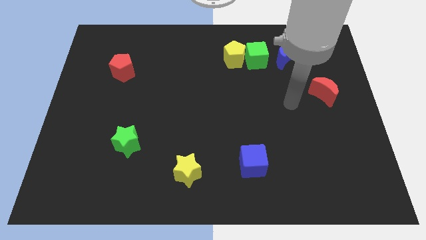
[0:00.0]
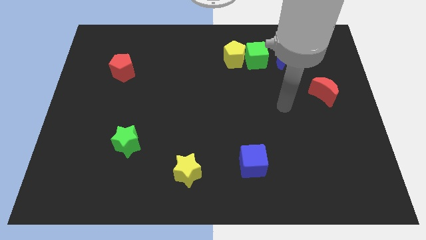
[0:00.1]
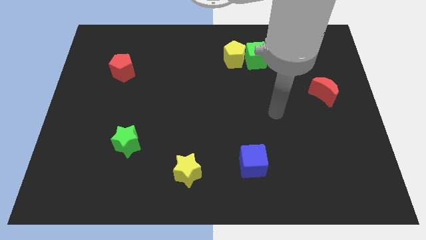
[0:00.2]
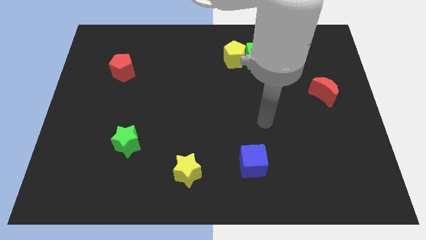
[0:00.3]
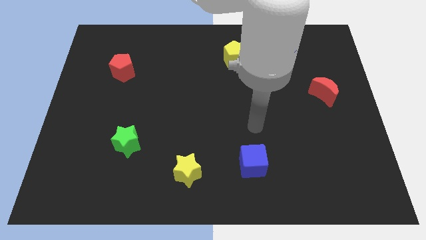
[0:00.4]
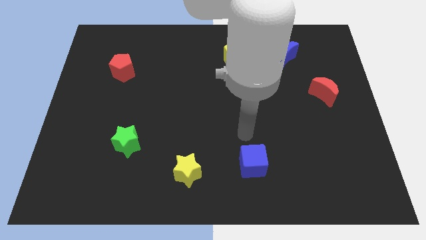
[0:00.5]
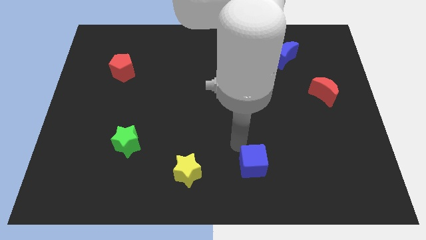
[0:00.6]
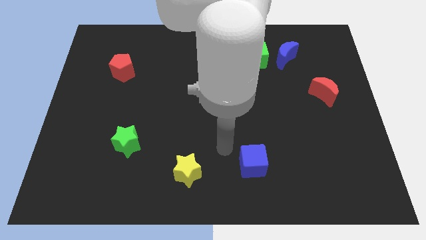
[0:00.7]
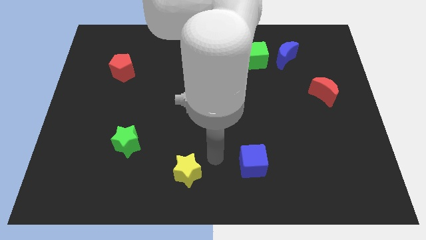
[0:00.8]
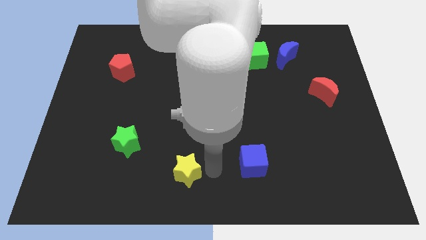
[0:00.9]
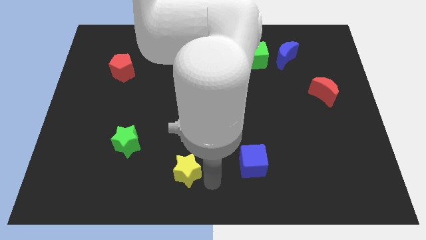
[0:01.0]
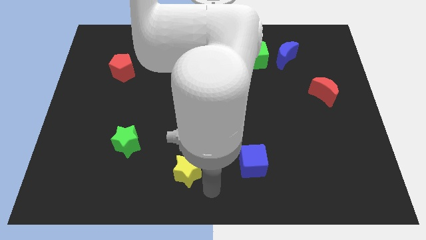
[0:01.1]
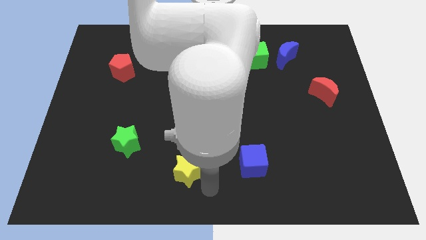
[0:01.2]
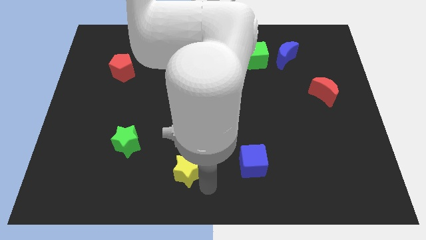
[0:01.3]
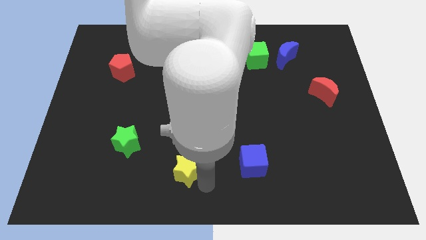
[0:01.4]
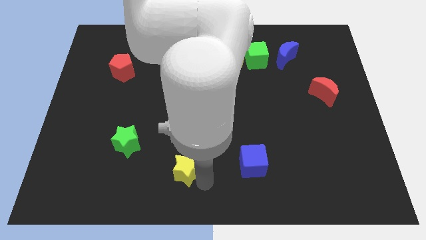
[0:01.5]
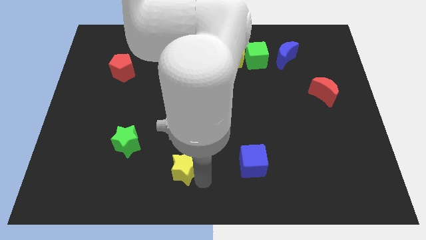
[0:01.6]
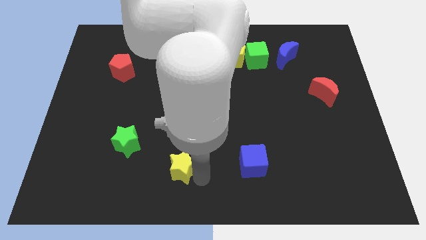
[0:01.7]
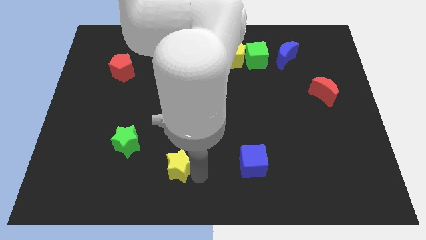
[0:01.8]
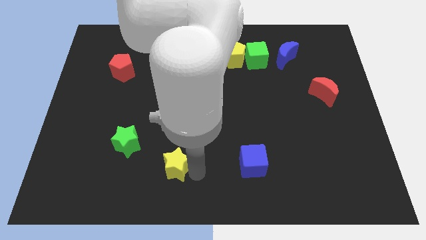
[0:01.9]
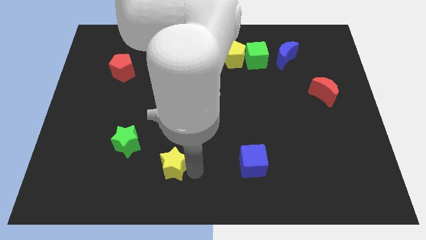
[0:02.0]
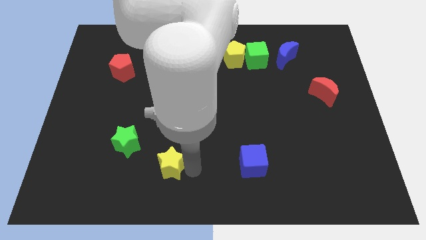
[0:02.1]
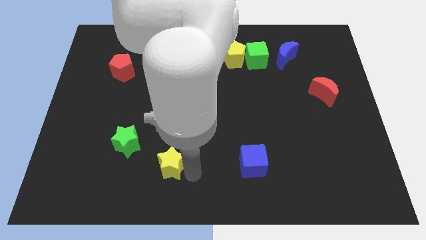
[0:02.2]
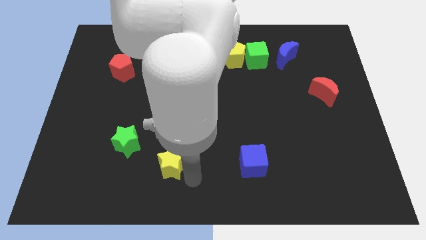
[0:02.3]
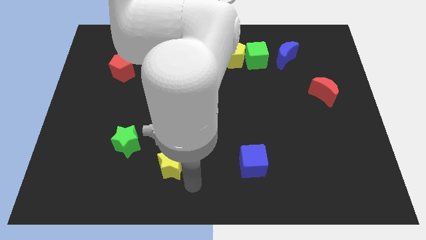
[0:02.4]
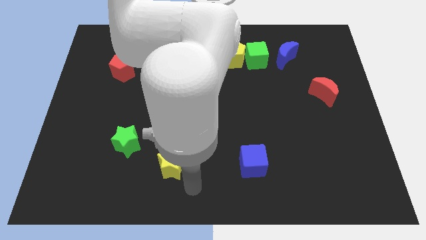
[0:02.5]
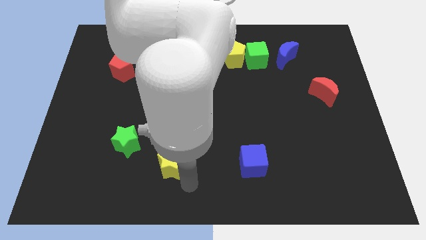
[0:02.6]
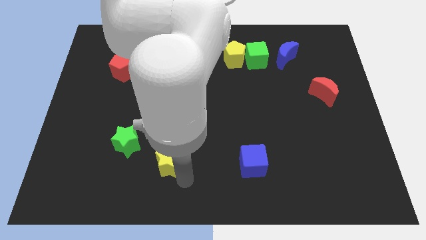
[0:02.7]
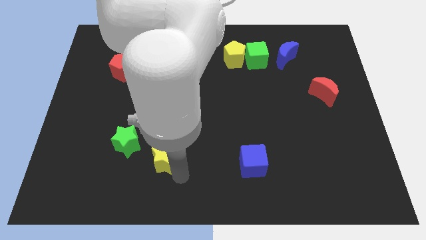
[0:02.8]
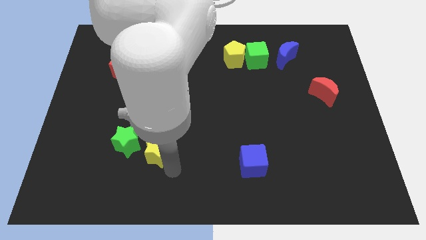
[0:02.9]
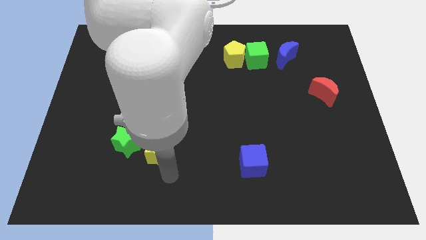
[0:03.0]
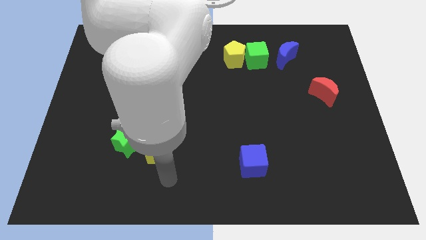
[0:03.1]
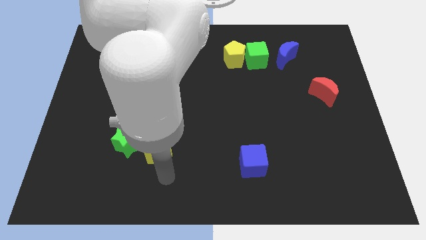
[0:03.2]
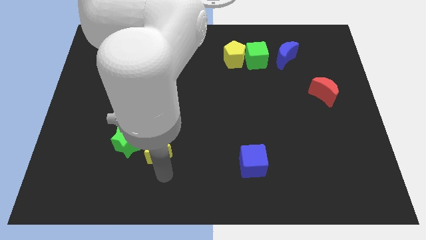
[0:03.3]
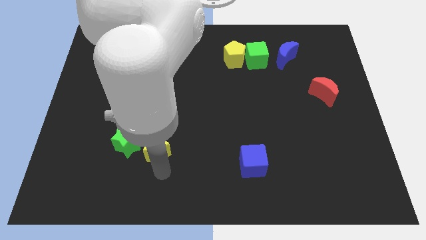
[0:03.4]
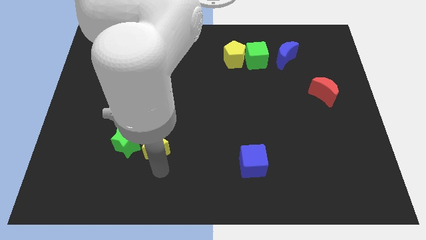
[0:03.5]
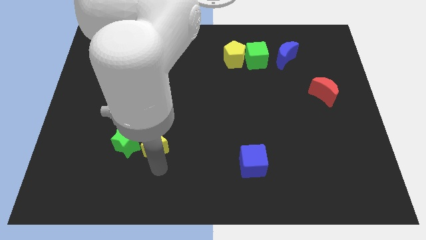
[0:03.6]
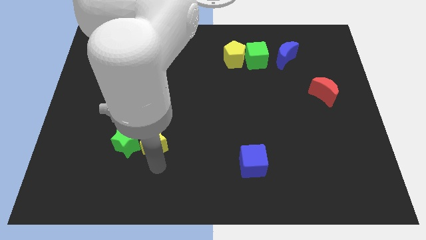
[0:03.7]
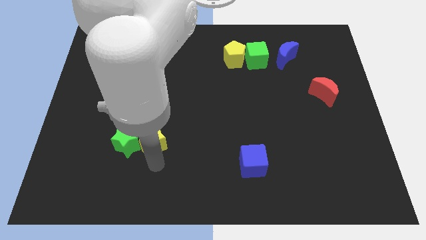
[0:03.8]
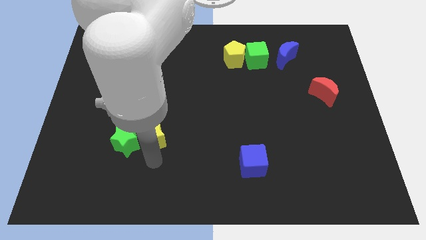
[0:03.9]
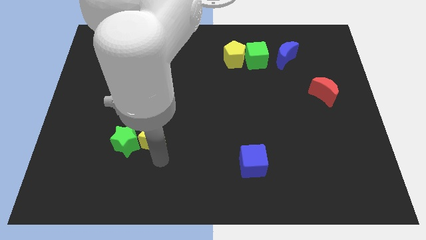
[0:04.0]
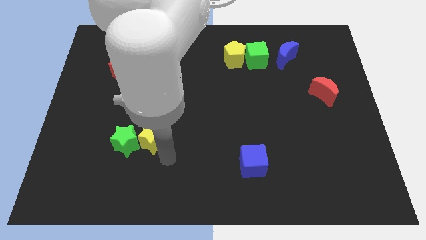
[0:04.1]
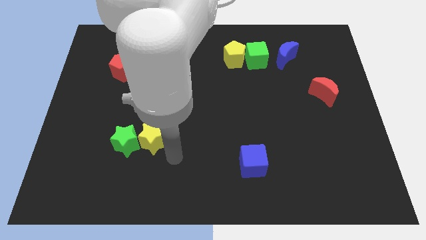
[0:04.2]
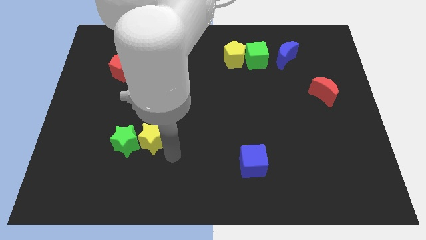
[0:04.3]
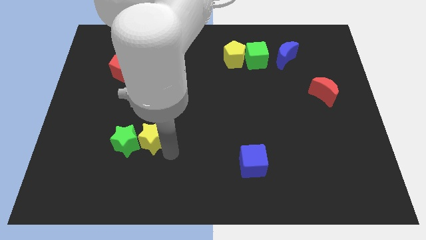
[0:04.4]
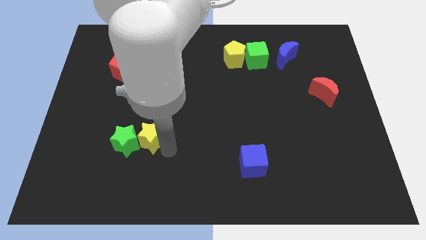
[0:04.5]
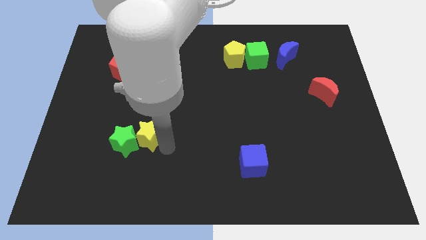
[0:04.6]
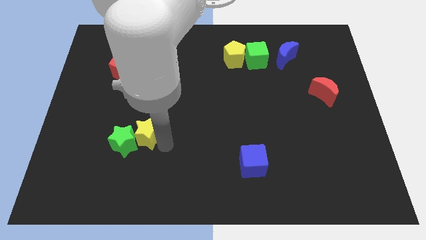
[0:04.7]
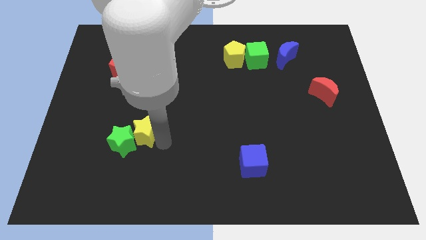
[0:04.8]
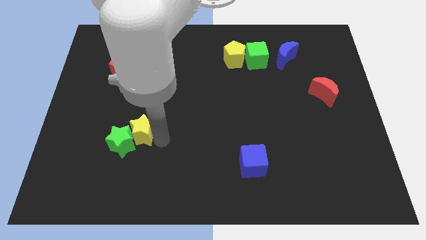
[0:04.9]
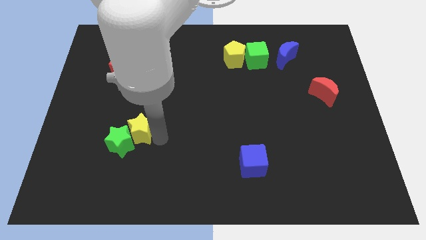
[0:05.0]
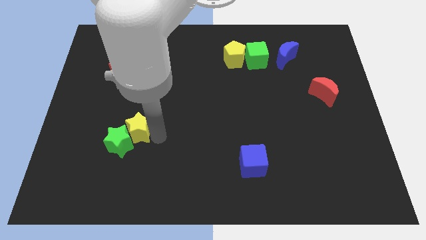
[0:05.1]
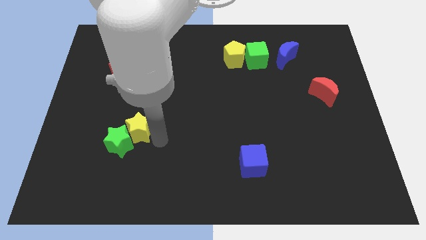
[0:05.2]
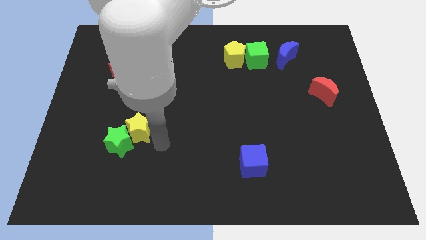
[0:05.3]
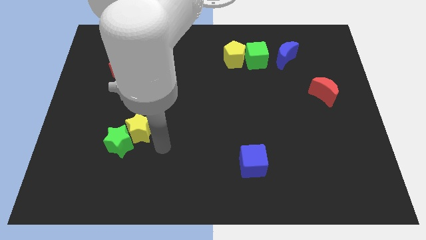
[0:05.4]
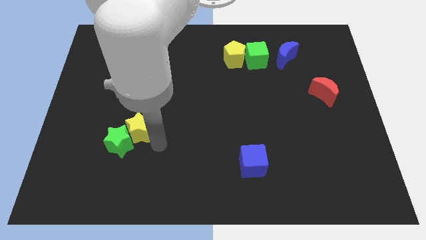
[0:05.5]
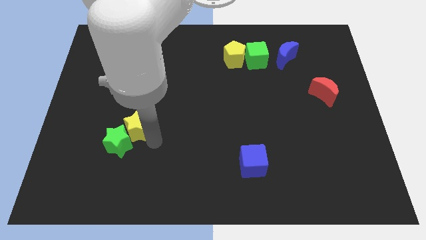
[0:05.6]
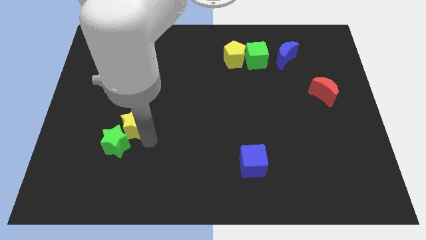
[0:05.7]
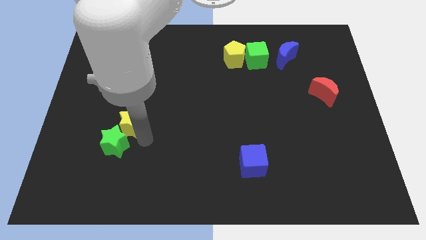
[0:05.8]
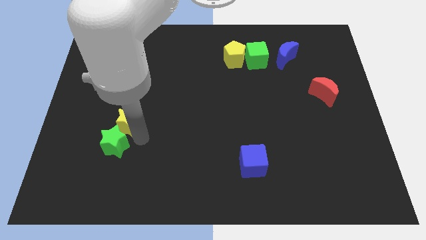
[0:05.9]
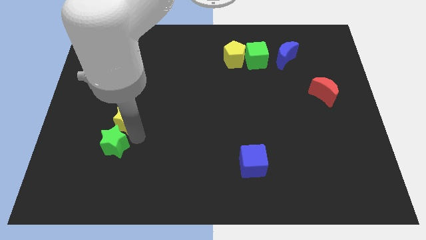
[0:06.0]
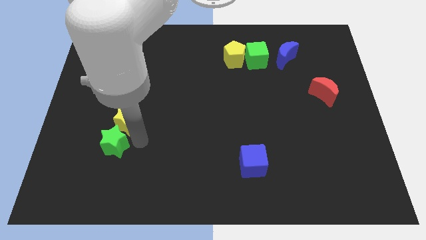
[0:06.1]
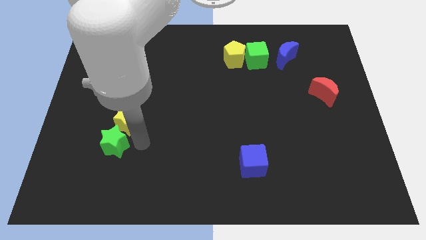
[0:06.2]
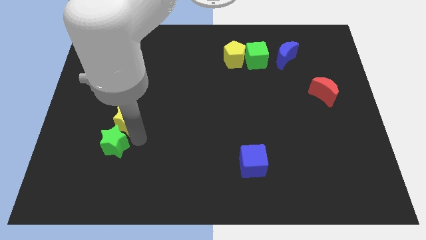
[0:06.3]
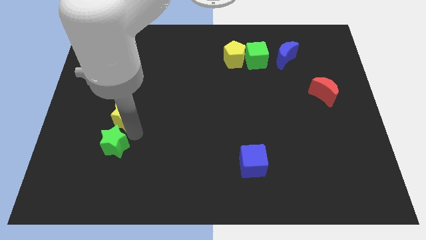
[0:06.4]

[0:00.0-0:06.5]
push the yellow star diagonally up and to the left

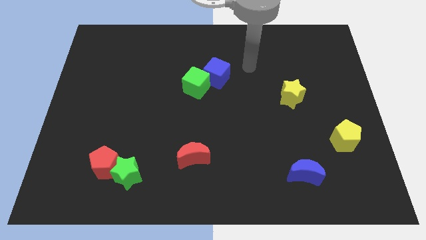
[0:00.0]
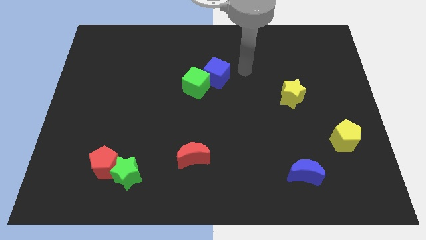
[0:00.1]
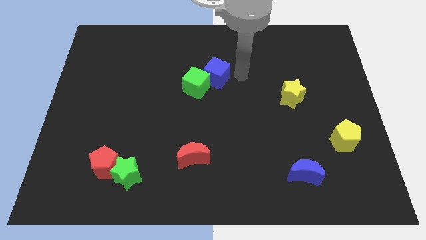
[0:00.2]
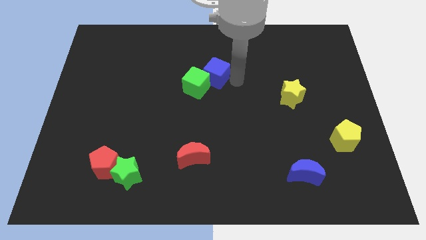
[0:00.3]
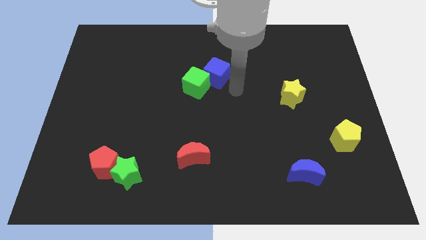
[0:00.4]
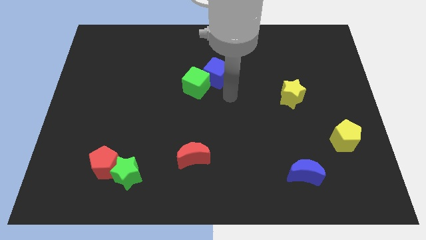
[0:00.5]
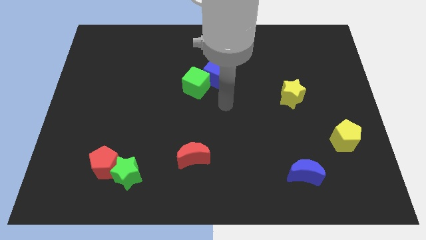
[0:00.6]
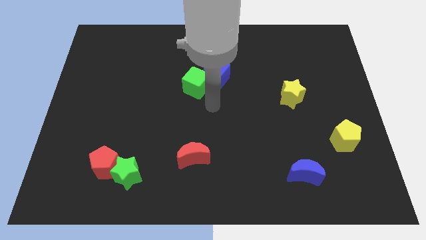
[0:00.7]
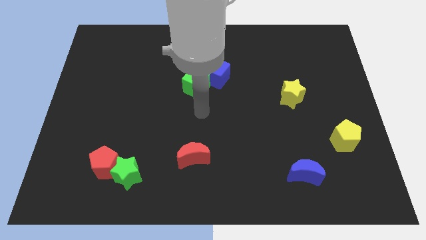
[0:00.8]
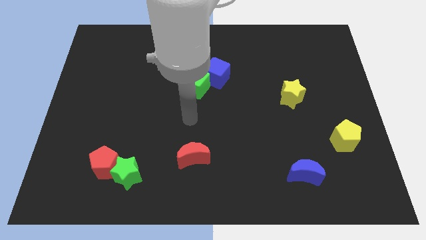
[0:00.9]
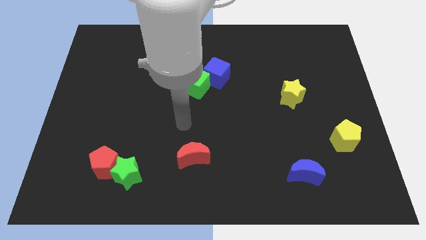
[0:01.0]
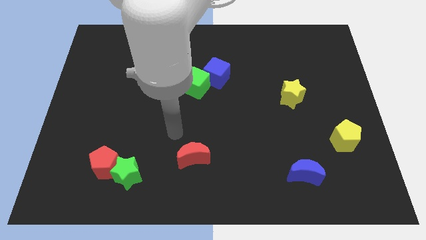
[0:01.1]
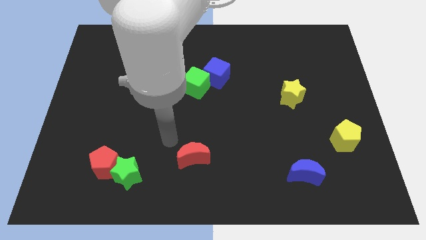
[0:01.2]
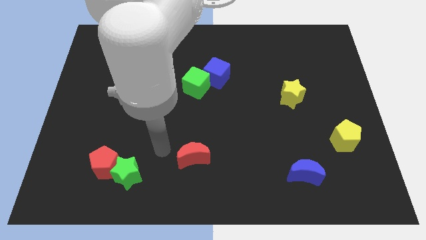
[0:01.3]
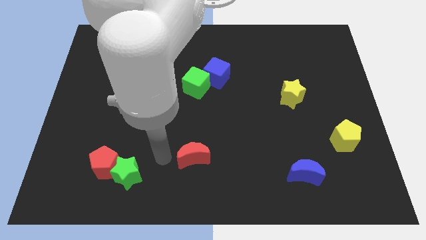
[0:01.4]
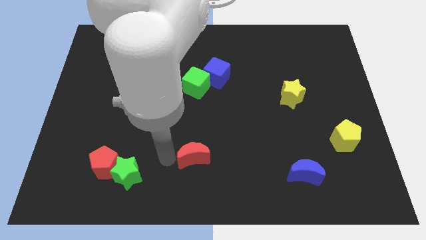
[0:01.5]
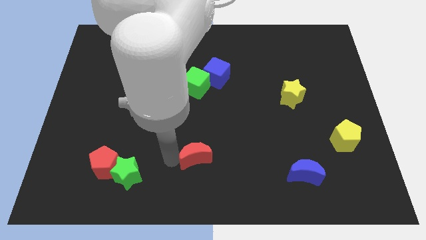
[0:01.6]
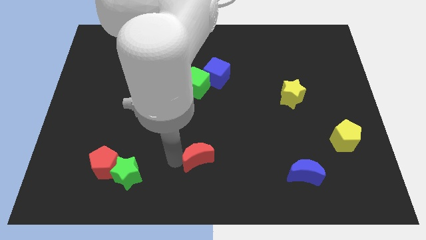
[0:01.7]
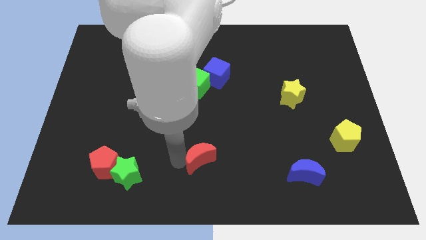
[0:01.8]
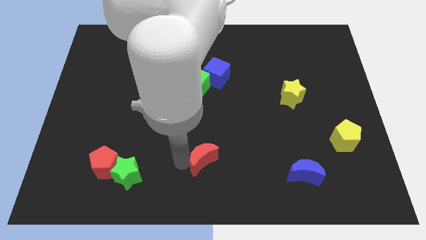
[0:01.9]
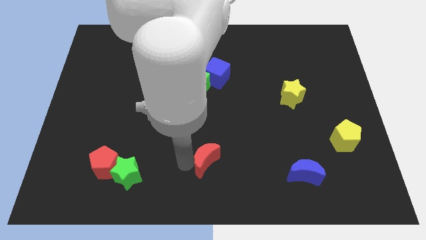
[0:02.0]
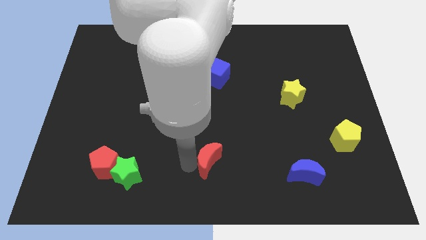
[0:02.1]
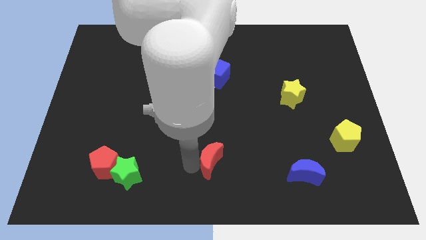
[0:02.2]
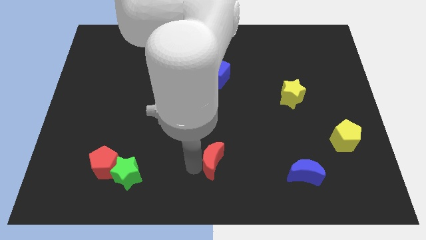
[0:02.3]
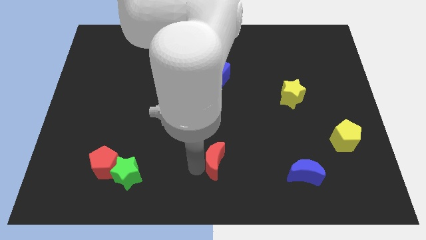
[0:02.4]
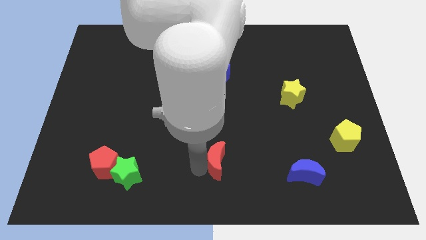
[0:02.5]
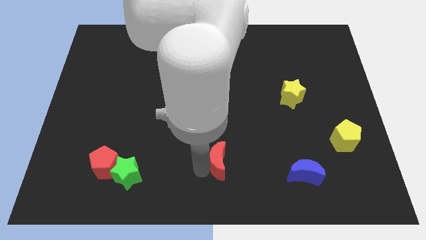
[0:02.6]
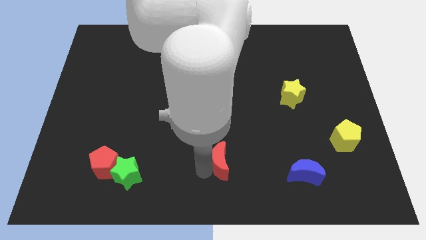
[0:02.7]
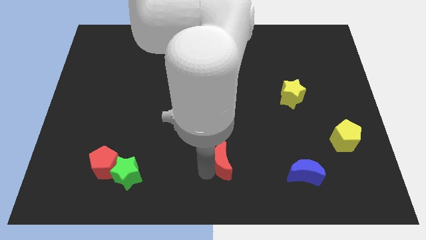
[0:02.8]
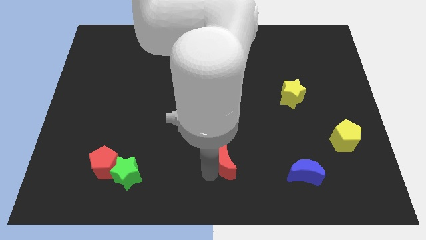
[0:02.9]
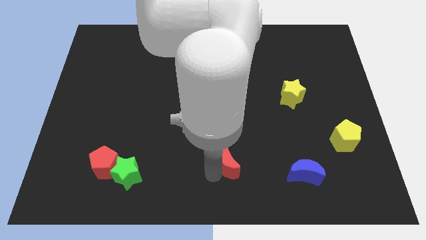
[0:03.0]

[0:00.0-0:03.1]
slide the red moon to the right a little
